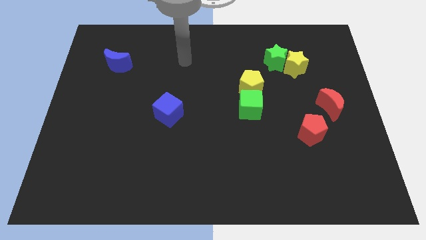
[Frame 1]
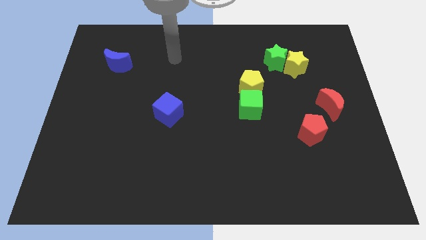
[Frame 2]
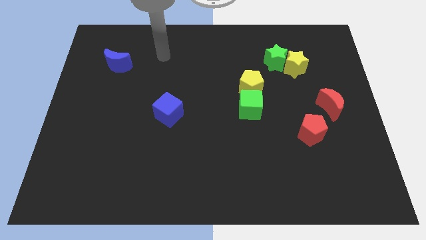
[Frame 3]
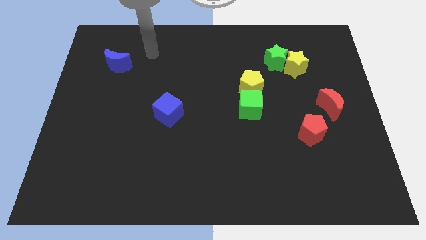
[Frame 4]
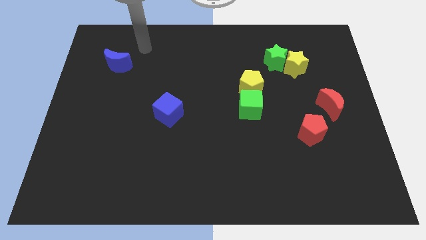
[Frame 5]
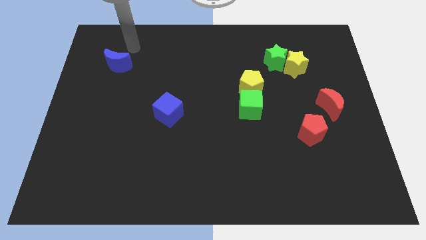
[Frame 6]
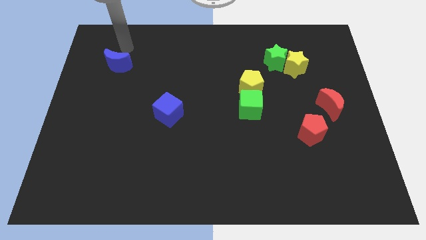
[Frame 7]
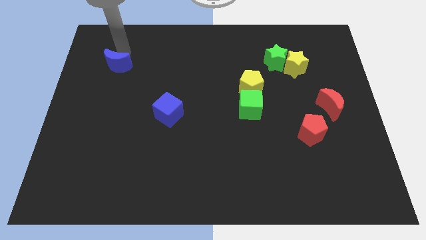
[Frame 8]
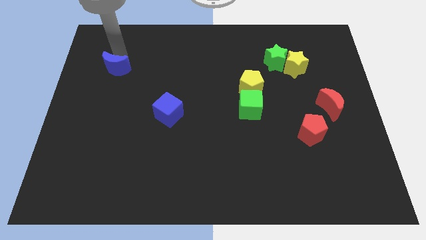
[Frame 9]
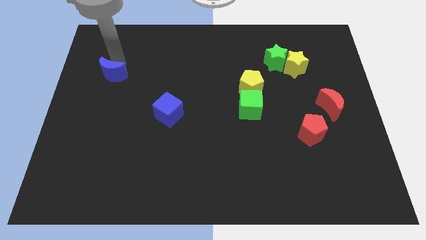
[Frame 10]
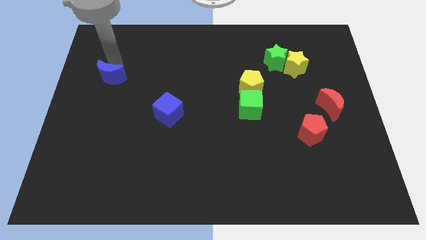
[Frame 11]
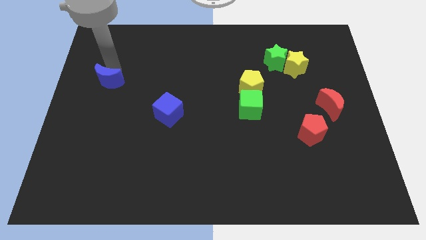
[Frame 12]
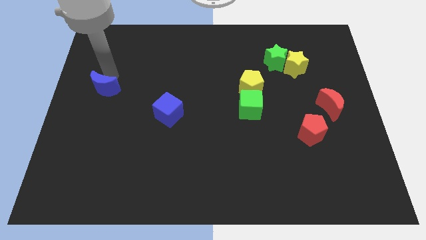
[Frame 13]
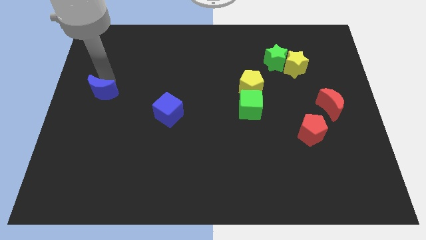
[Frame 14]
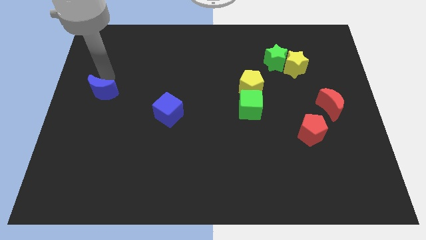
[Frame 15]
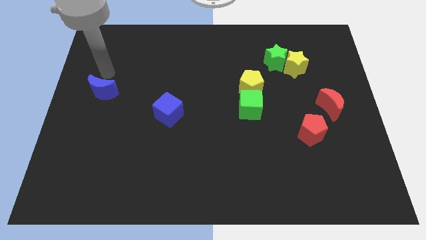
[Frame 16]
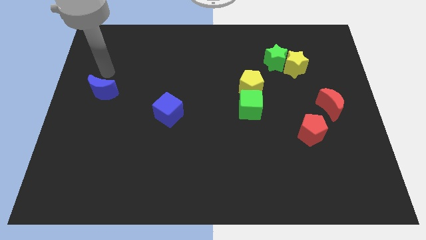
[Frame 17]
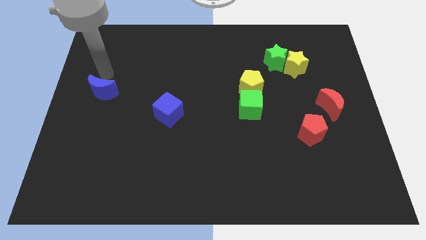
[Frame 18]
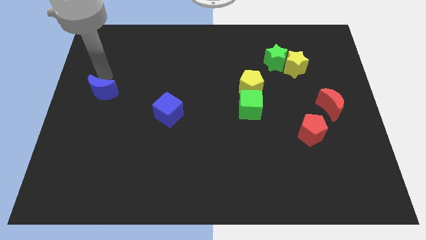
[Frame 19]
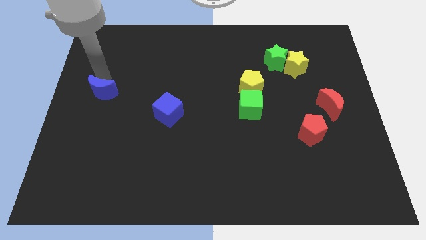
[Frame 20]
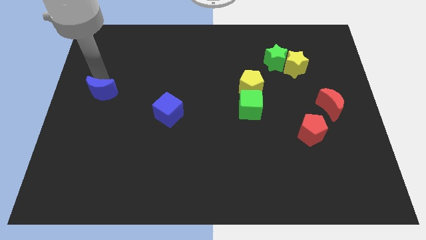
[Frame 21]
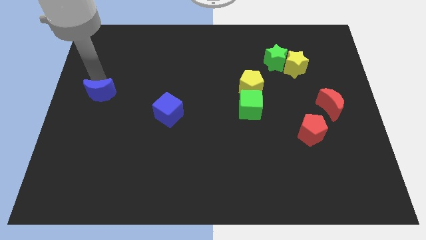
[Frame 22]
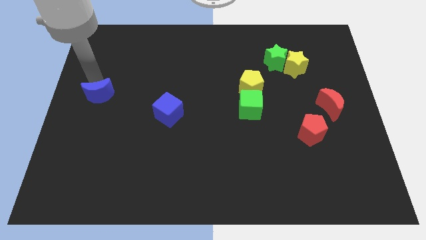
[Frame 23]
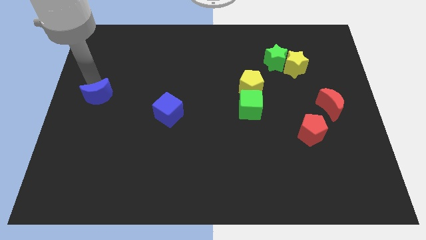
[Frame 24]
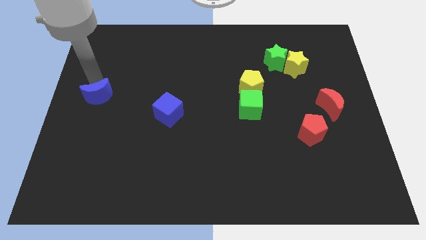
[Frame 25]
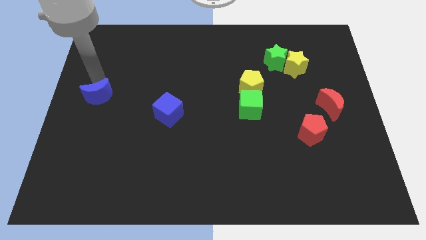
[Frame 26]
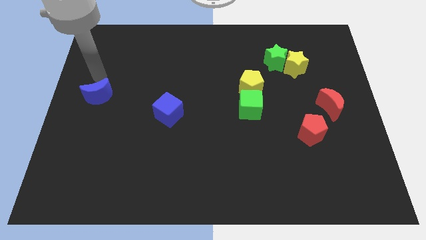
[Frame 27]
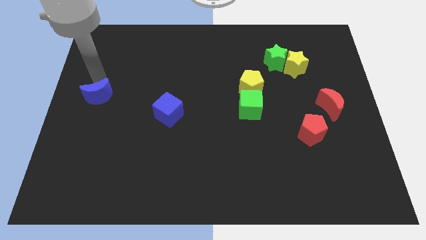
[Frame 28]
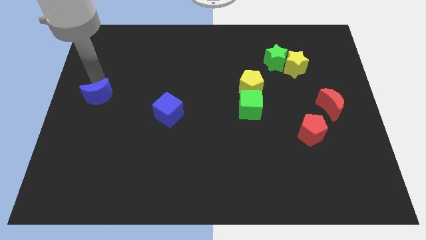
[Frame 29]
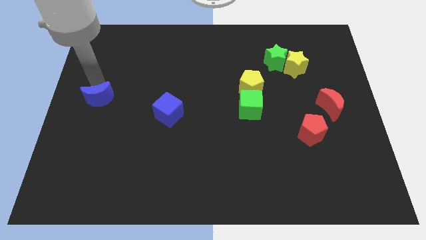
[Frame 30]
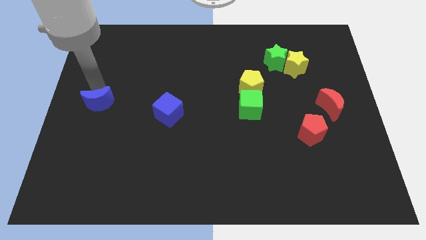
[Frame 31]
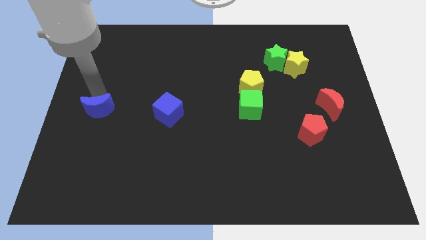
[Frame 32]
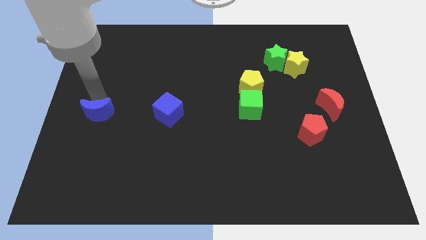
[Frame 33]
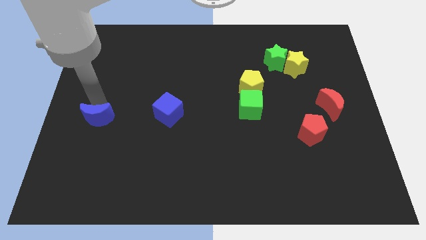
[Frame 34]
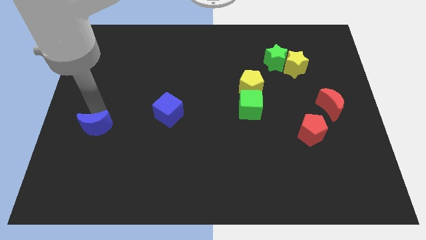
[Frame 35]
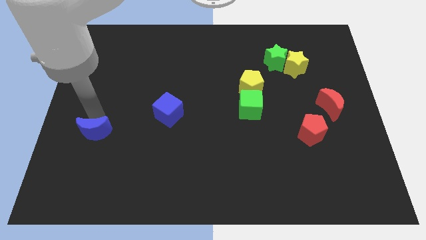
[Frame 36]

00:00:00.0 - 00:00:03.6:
push the blue moon downwards

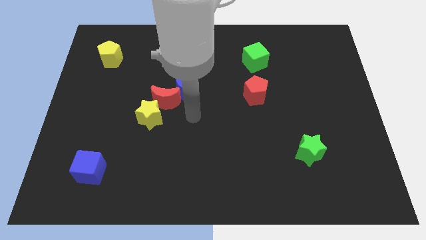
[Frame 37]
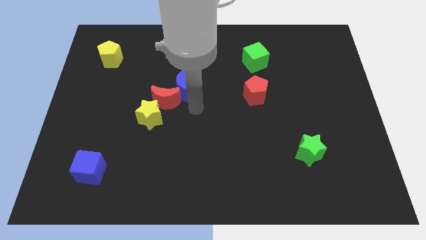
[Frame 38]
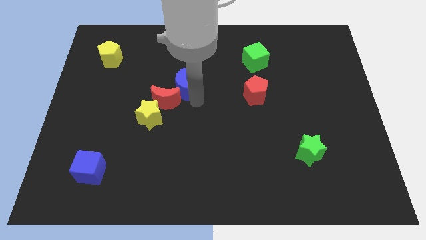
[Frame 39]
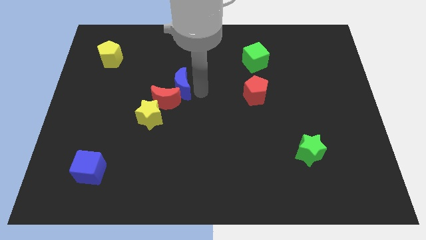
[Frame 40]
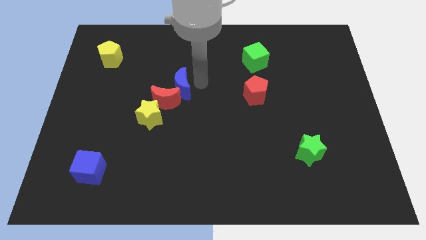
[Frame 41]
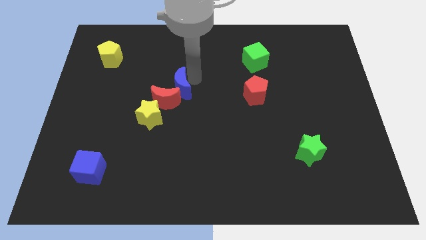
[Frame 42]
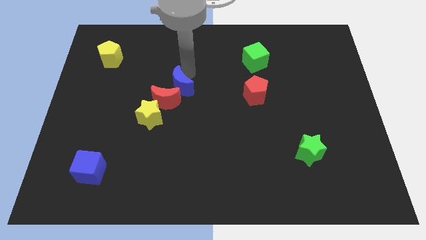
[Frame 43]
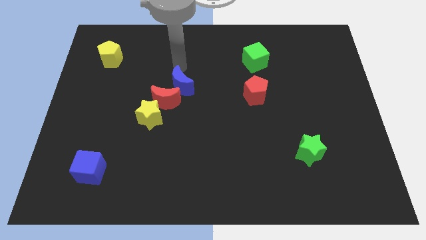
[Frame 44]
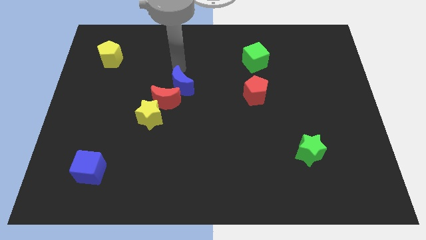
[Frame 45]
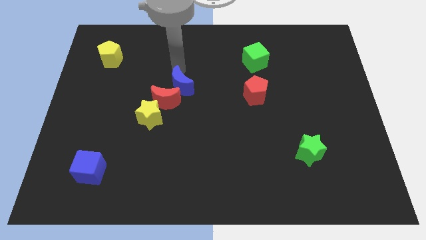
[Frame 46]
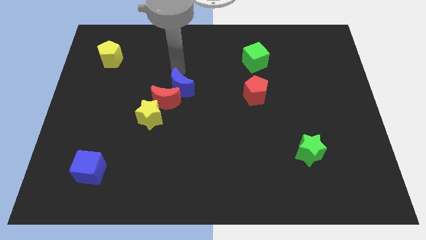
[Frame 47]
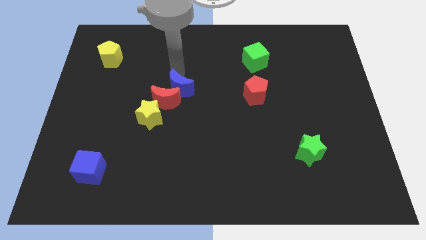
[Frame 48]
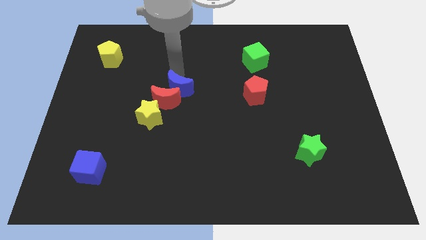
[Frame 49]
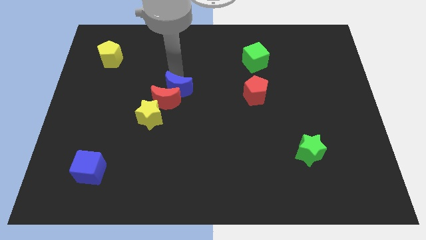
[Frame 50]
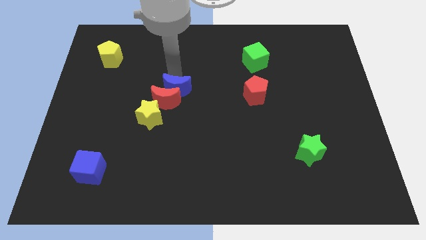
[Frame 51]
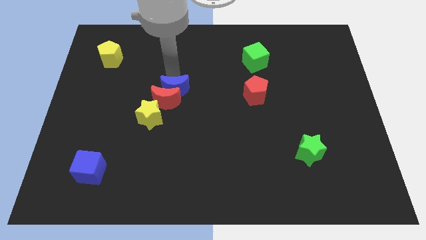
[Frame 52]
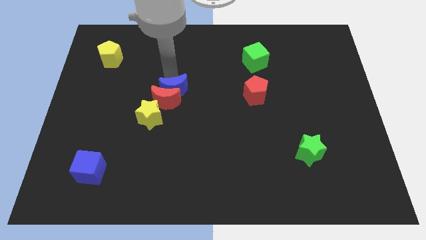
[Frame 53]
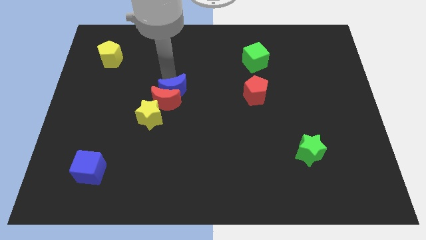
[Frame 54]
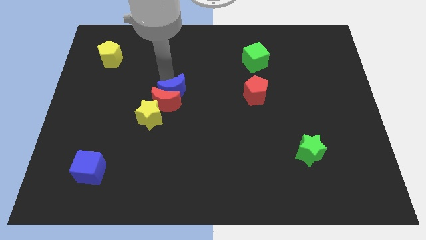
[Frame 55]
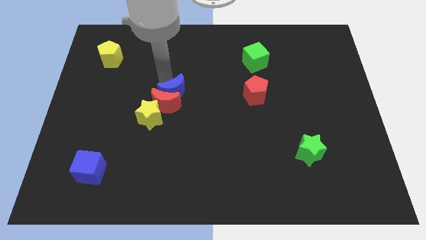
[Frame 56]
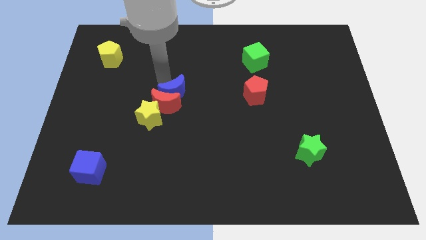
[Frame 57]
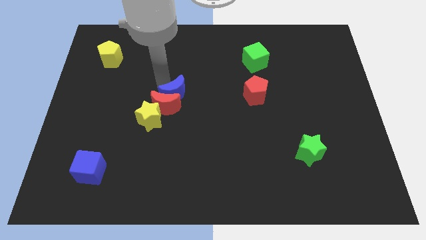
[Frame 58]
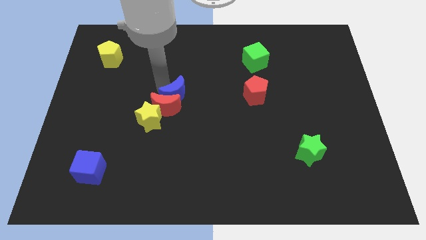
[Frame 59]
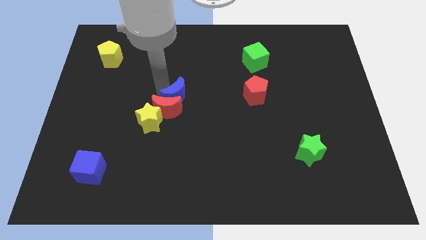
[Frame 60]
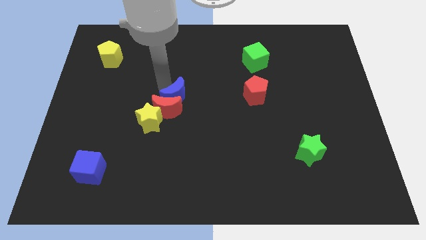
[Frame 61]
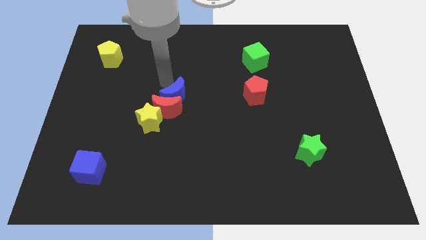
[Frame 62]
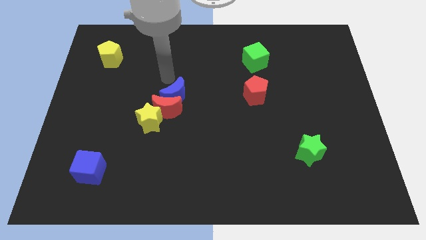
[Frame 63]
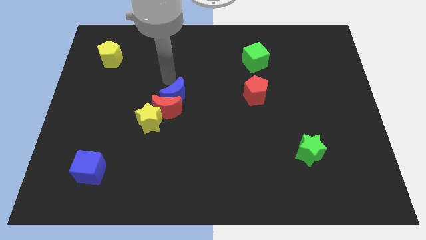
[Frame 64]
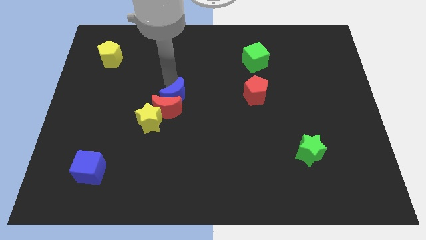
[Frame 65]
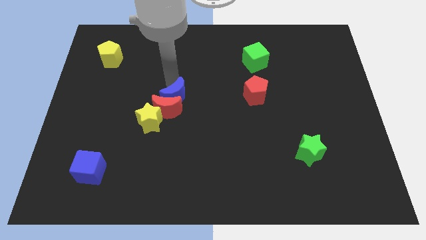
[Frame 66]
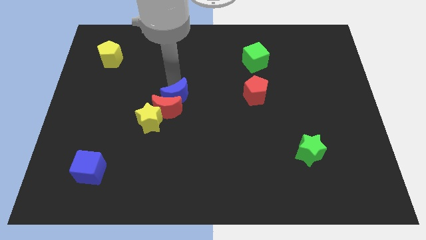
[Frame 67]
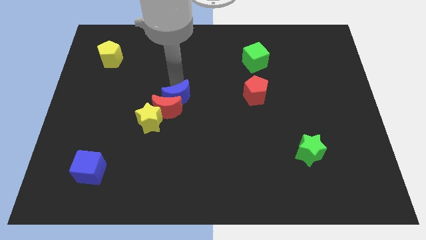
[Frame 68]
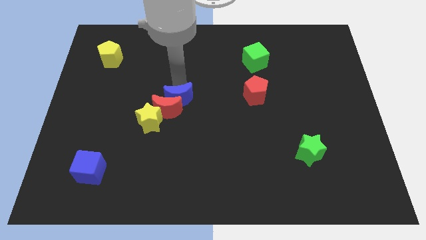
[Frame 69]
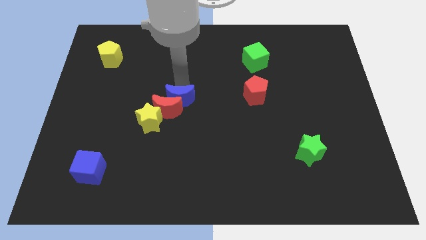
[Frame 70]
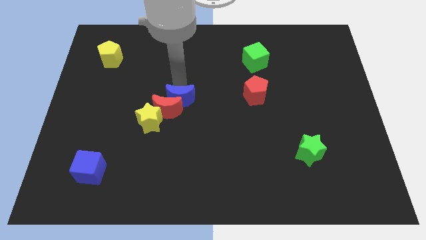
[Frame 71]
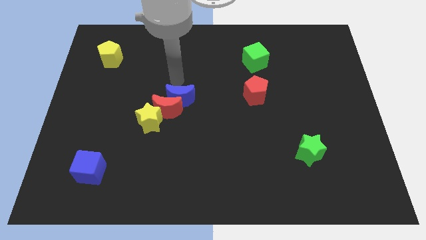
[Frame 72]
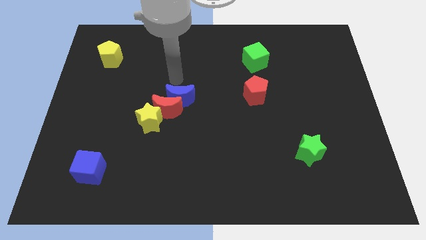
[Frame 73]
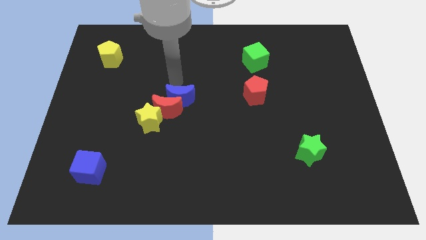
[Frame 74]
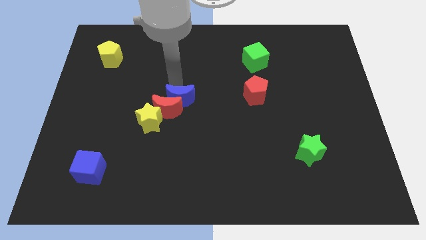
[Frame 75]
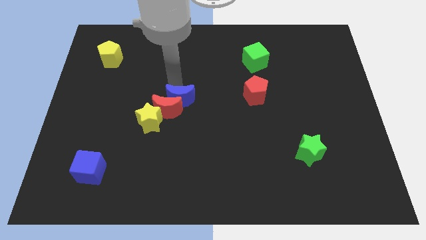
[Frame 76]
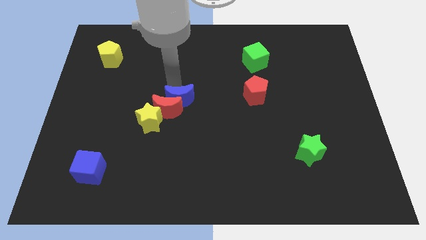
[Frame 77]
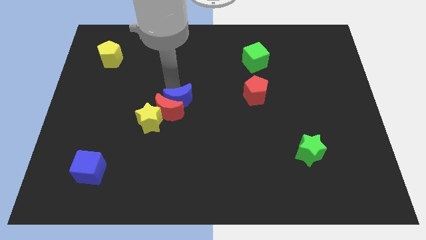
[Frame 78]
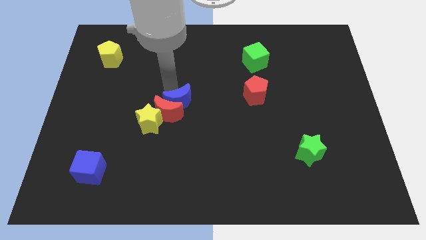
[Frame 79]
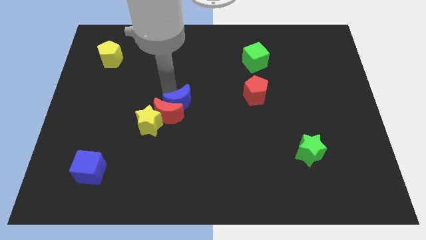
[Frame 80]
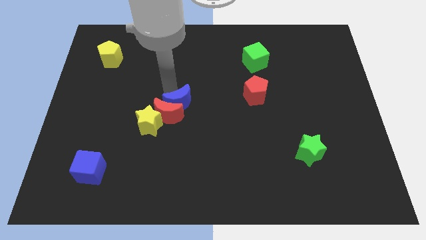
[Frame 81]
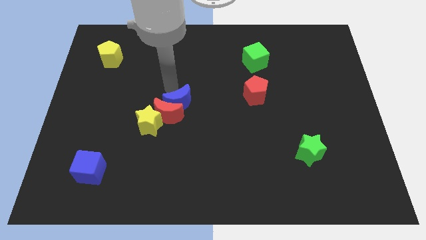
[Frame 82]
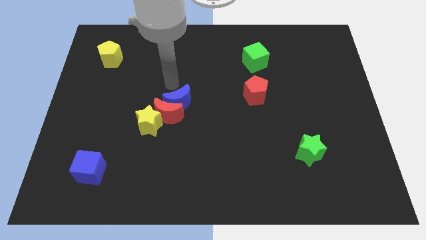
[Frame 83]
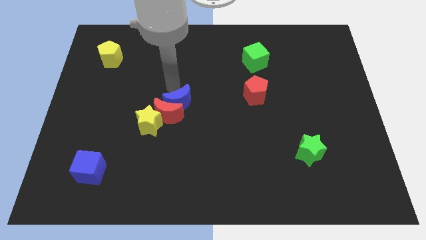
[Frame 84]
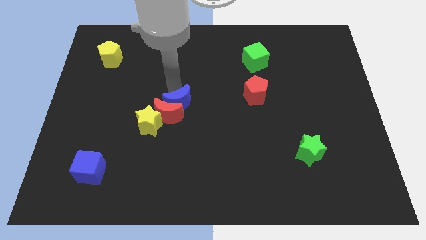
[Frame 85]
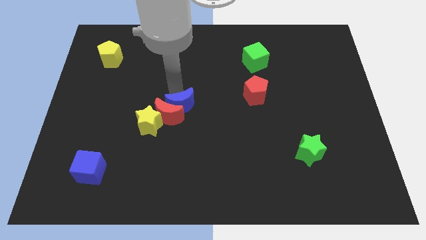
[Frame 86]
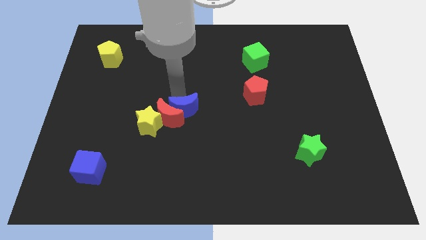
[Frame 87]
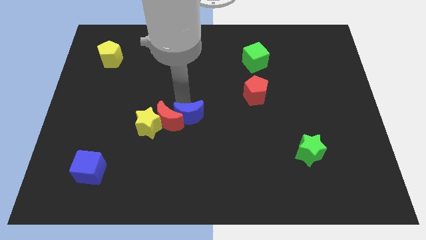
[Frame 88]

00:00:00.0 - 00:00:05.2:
slightly push the blue moon downwards
